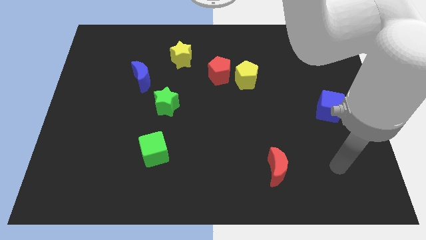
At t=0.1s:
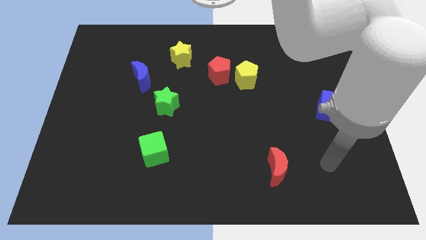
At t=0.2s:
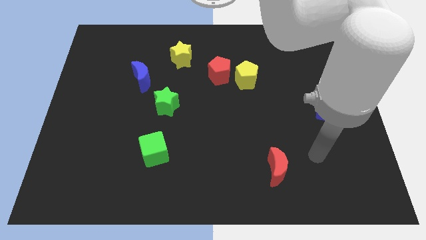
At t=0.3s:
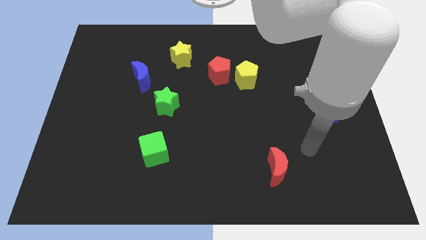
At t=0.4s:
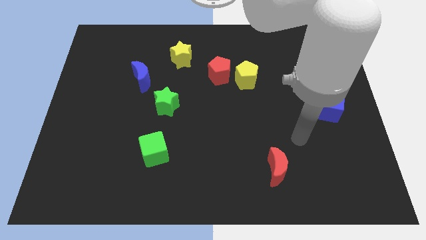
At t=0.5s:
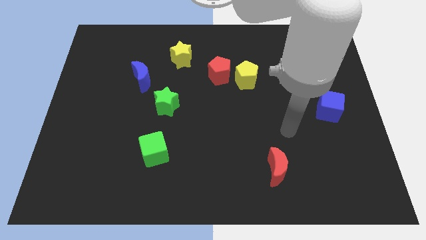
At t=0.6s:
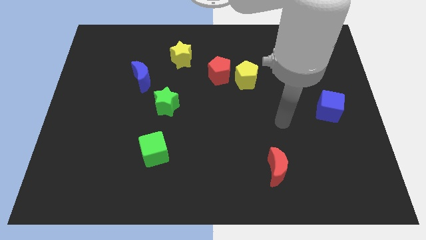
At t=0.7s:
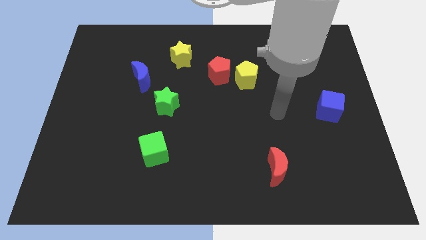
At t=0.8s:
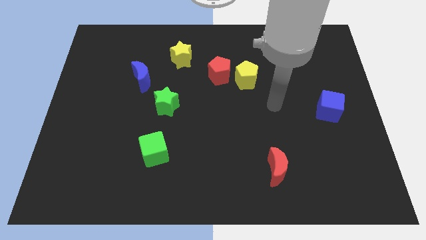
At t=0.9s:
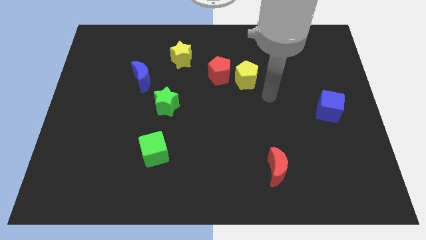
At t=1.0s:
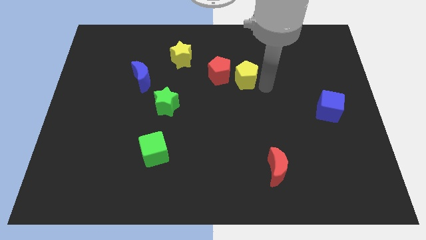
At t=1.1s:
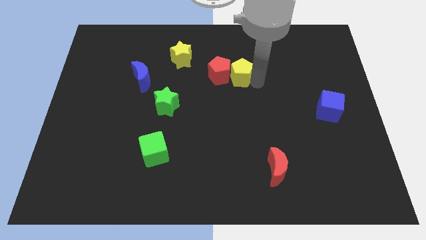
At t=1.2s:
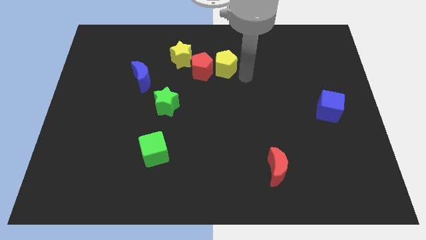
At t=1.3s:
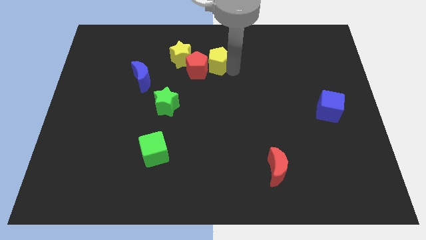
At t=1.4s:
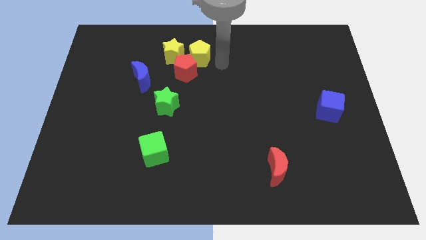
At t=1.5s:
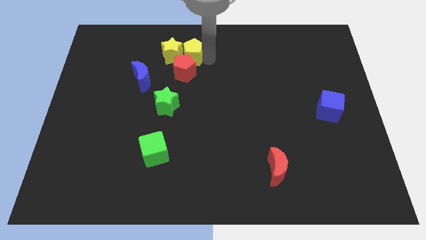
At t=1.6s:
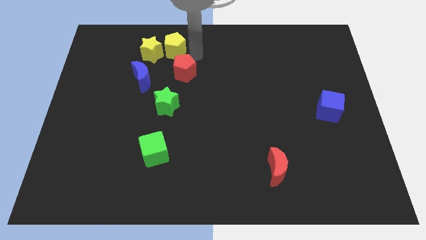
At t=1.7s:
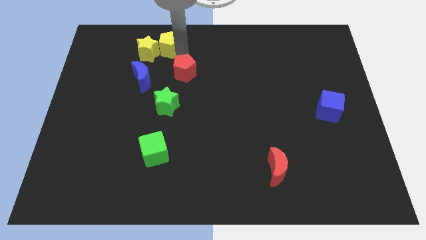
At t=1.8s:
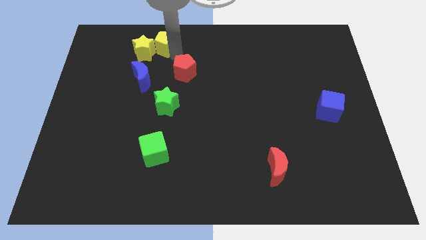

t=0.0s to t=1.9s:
separate the red pentagon from the yellow pentagon

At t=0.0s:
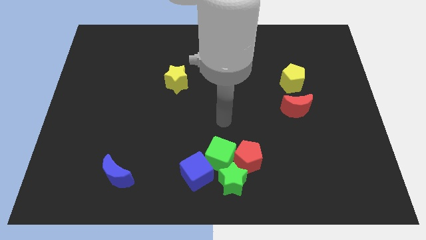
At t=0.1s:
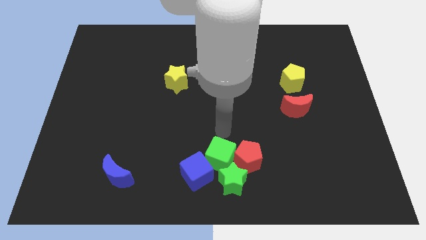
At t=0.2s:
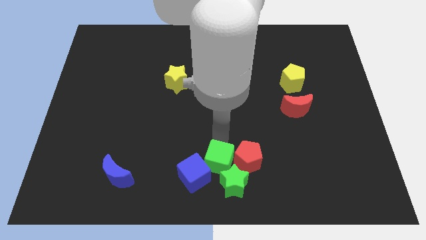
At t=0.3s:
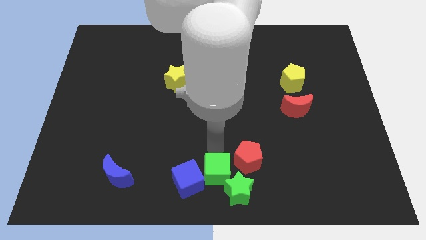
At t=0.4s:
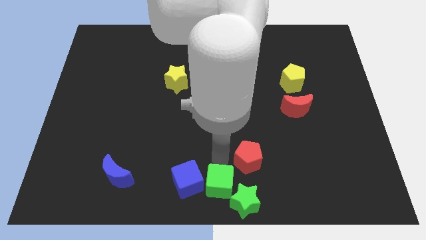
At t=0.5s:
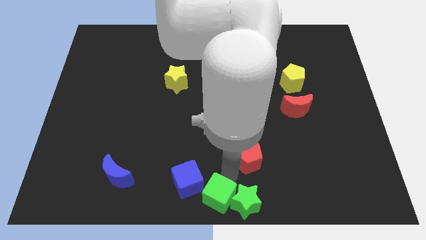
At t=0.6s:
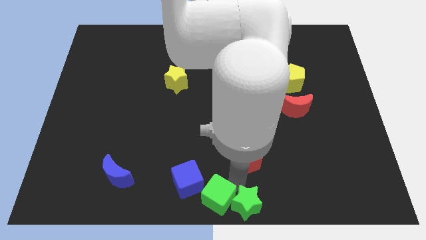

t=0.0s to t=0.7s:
move the red pentagon away from the green cube and green star

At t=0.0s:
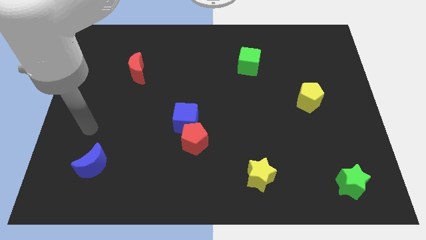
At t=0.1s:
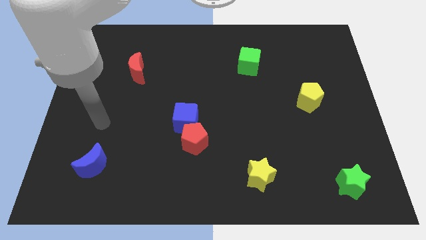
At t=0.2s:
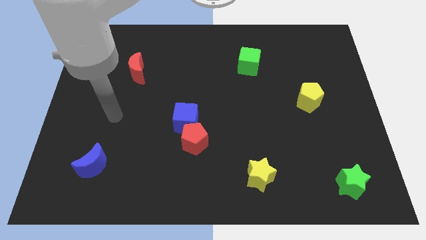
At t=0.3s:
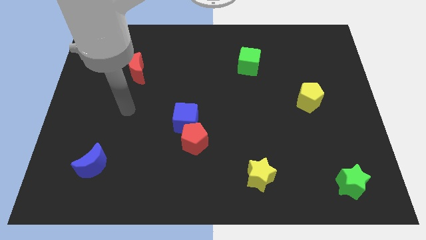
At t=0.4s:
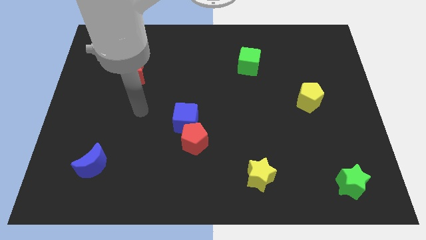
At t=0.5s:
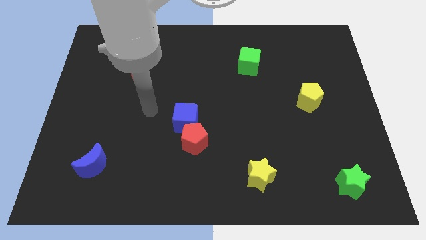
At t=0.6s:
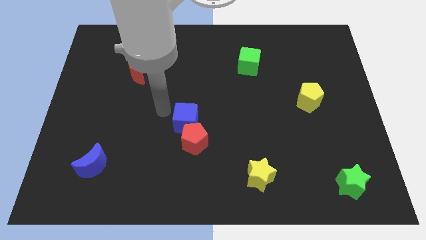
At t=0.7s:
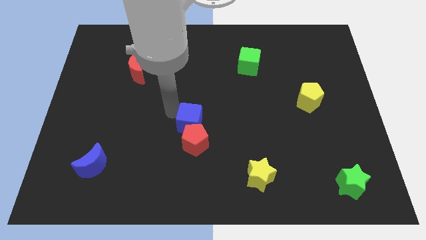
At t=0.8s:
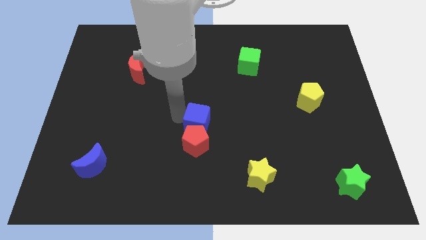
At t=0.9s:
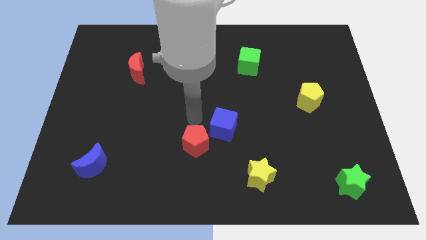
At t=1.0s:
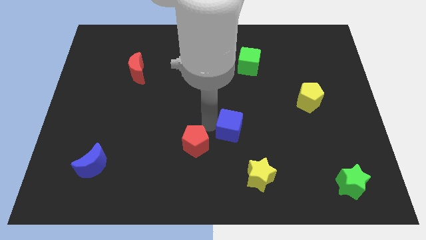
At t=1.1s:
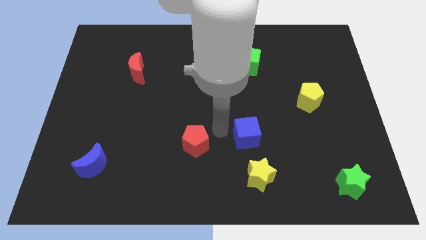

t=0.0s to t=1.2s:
pull the red pentagon apart from the blue cube

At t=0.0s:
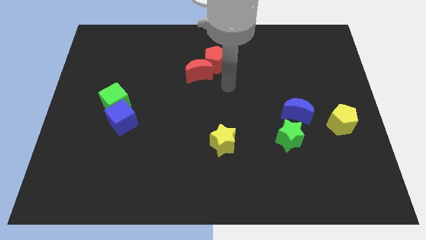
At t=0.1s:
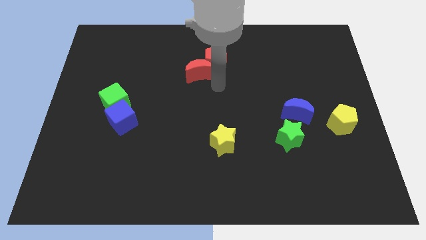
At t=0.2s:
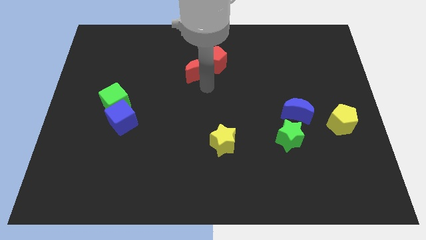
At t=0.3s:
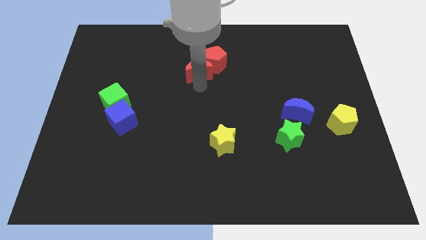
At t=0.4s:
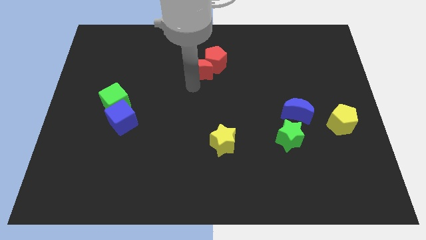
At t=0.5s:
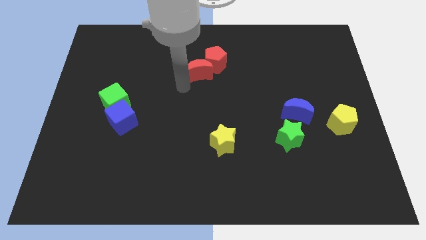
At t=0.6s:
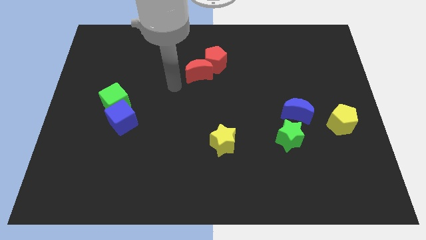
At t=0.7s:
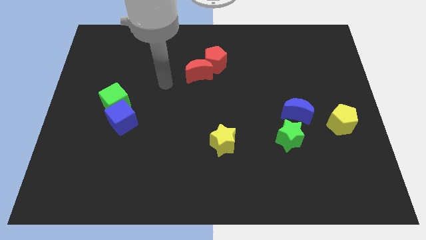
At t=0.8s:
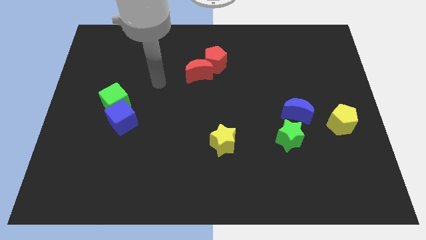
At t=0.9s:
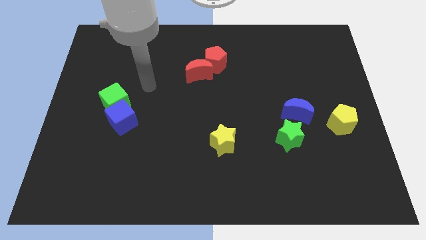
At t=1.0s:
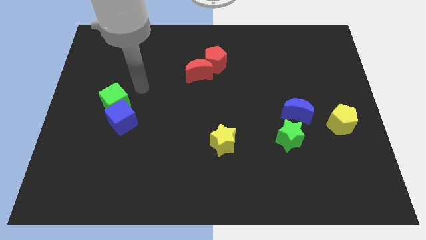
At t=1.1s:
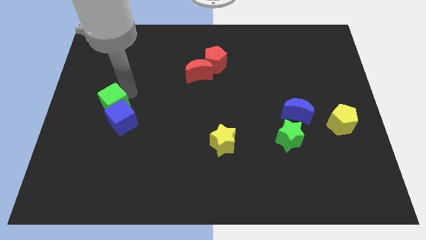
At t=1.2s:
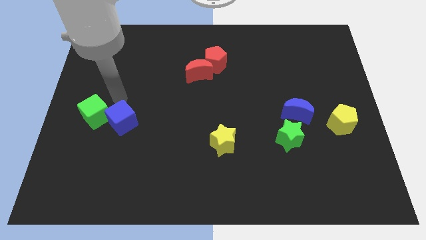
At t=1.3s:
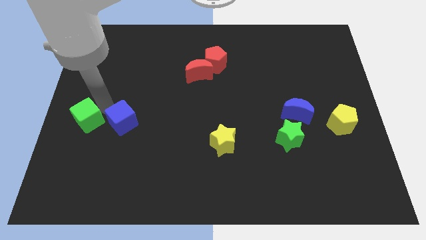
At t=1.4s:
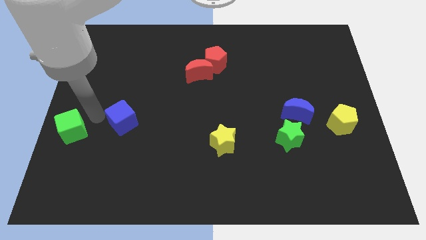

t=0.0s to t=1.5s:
separate the blue cube from the green cube

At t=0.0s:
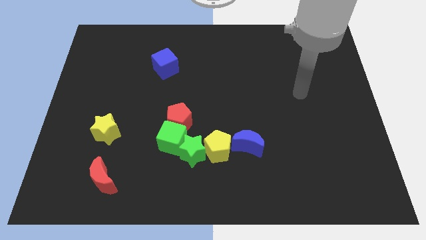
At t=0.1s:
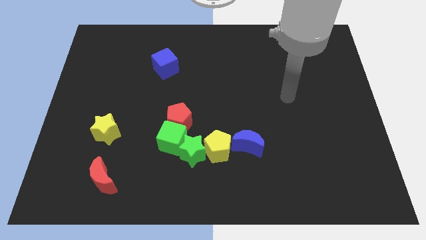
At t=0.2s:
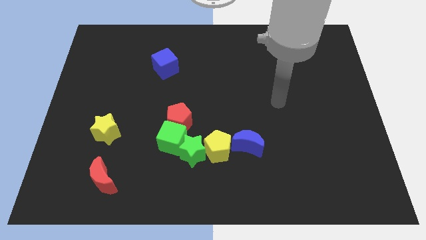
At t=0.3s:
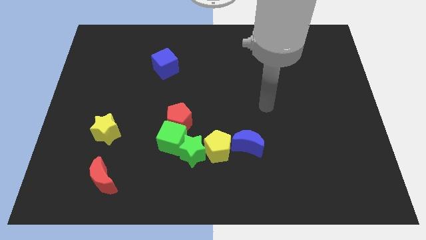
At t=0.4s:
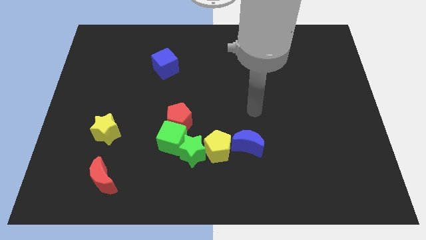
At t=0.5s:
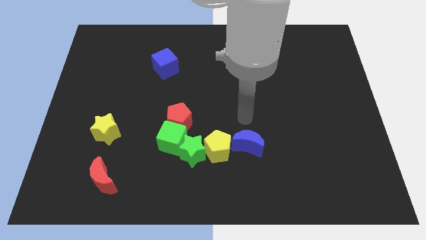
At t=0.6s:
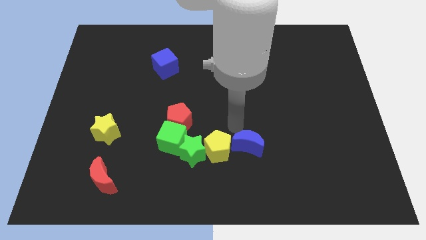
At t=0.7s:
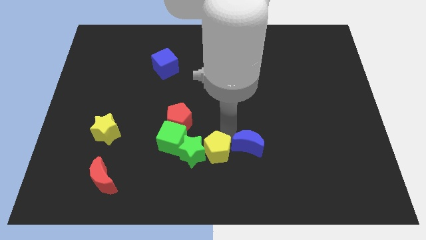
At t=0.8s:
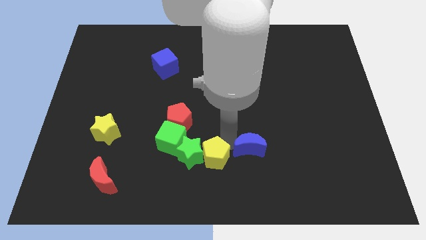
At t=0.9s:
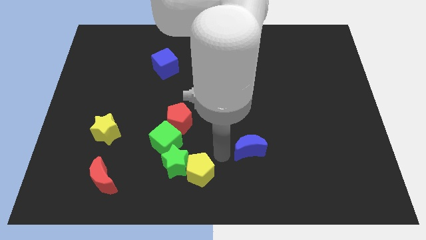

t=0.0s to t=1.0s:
pull the blue moon apart from the yellow pentagon

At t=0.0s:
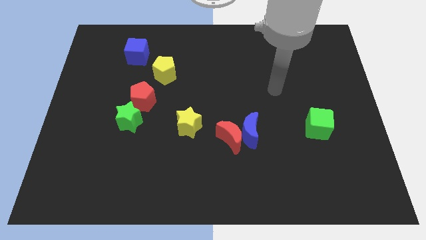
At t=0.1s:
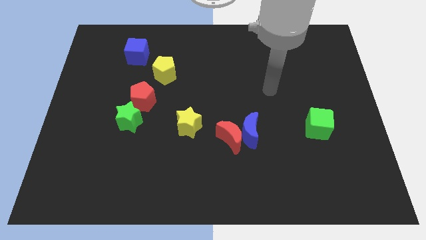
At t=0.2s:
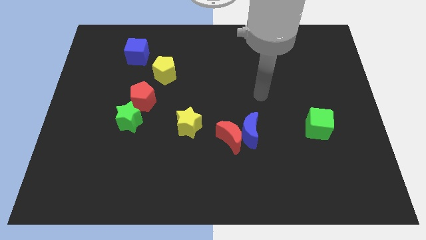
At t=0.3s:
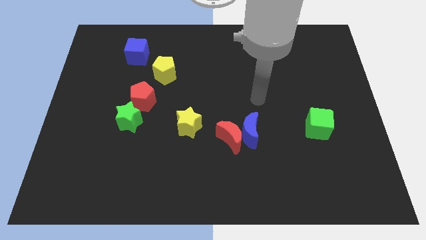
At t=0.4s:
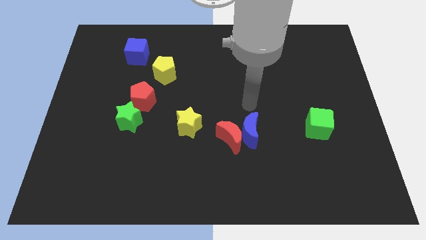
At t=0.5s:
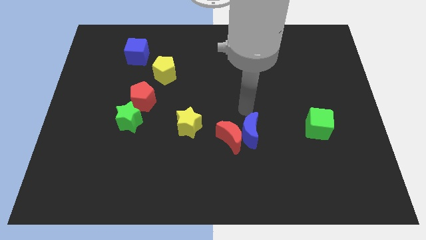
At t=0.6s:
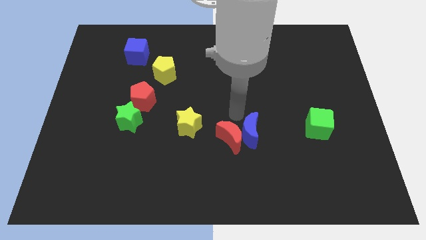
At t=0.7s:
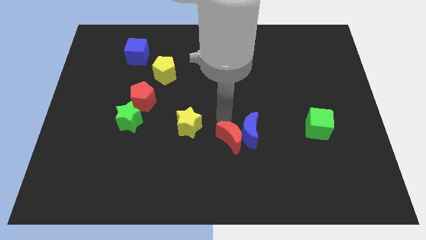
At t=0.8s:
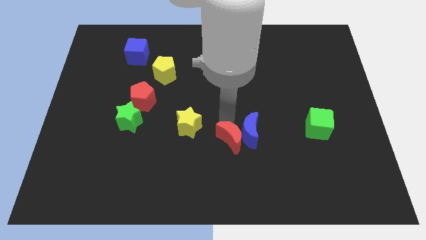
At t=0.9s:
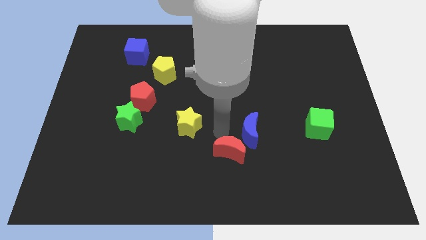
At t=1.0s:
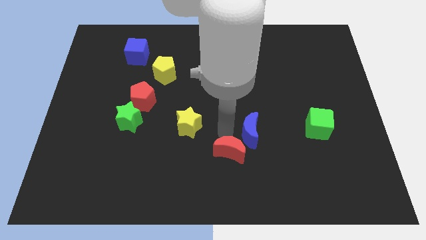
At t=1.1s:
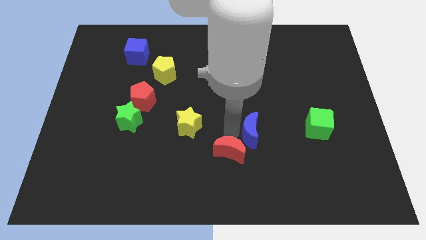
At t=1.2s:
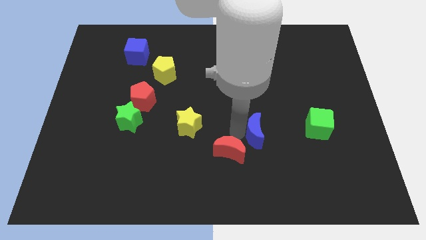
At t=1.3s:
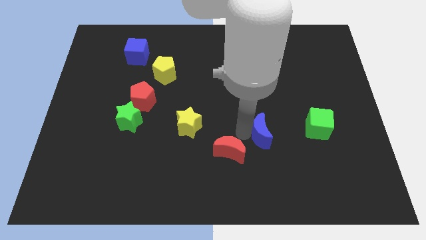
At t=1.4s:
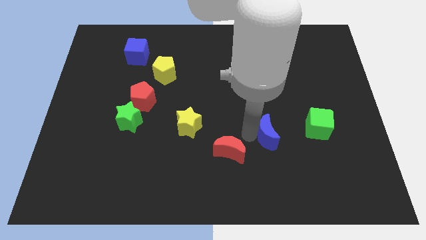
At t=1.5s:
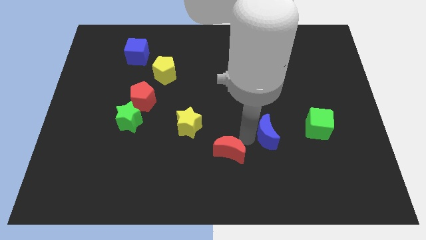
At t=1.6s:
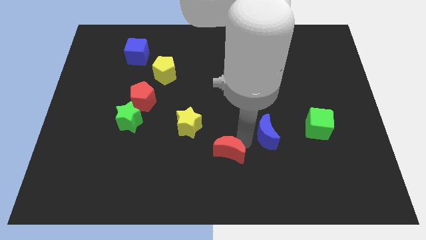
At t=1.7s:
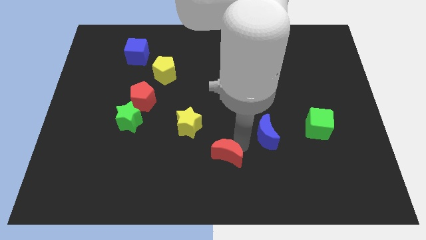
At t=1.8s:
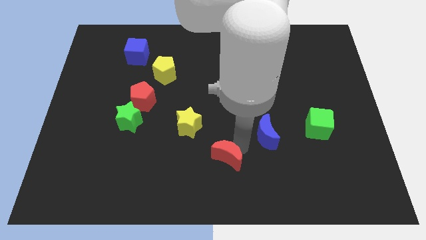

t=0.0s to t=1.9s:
separate the blue moon from the red moon

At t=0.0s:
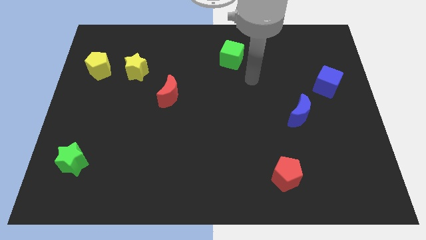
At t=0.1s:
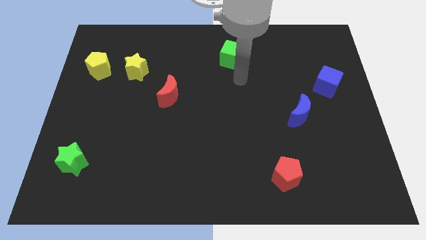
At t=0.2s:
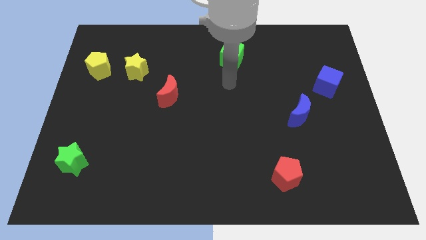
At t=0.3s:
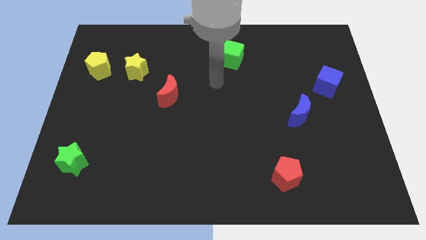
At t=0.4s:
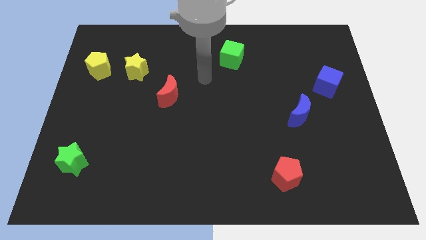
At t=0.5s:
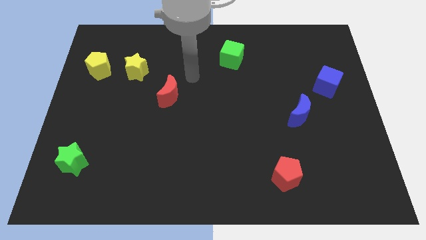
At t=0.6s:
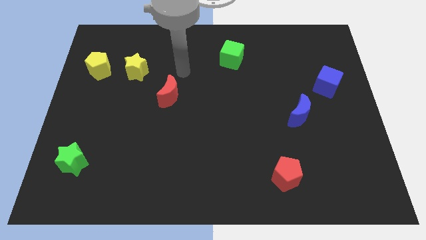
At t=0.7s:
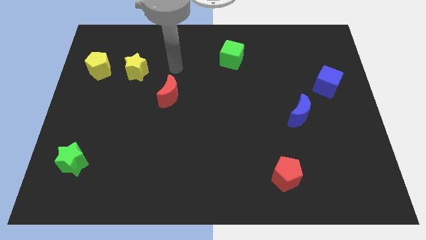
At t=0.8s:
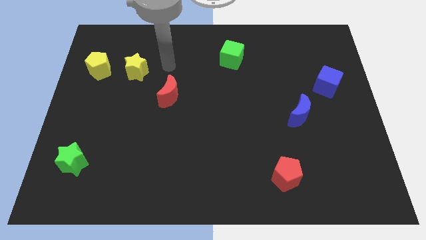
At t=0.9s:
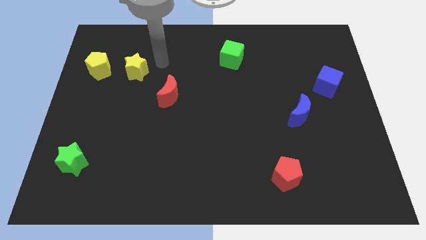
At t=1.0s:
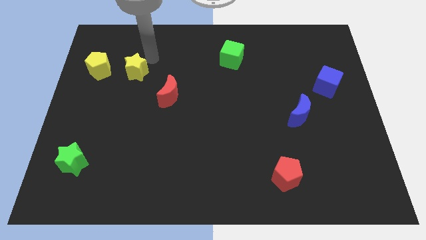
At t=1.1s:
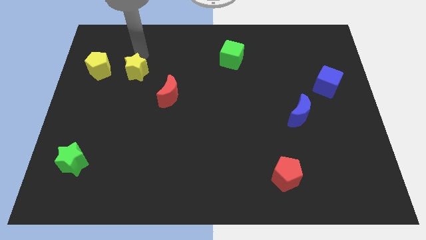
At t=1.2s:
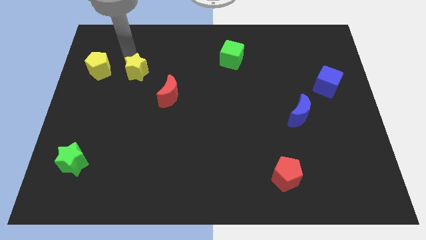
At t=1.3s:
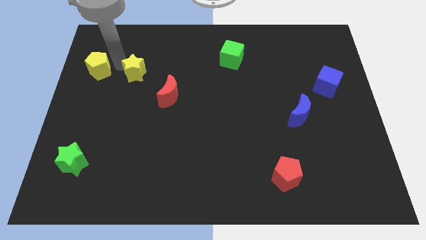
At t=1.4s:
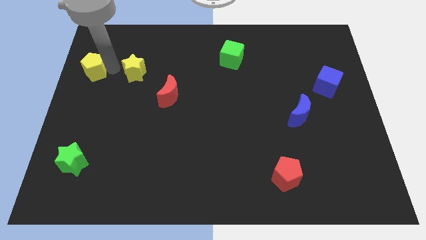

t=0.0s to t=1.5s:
pull the yellow star apart from the yellow pentagon
